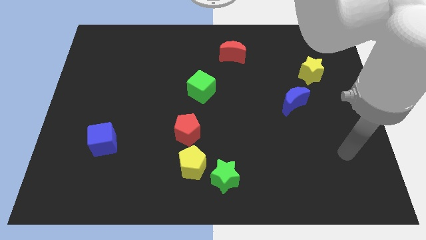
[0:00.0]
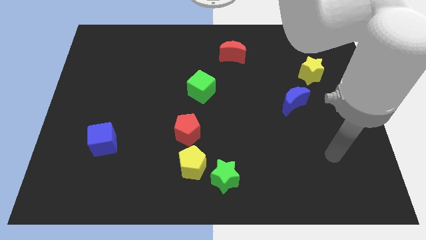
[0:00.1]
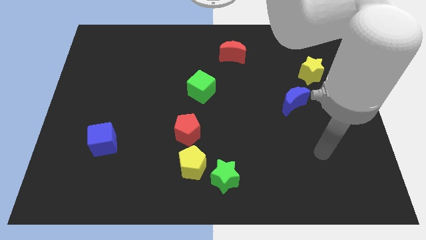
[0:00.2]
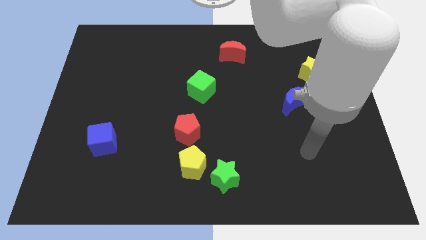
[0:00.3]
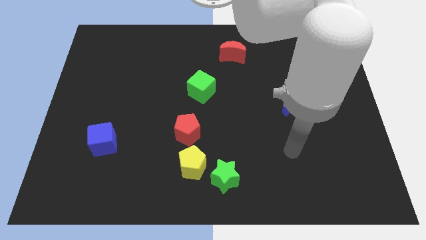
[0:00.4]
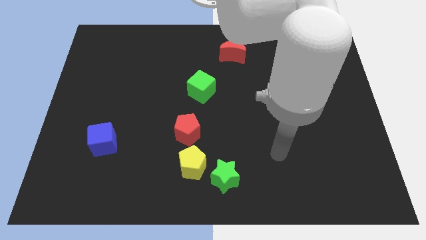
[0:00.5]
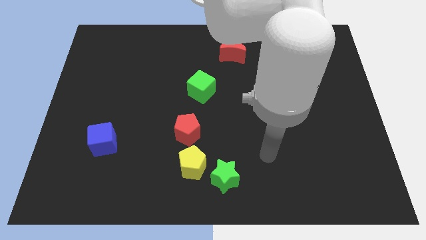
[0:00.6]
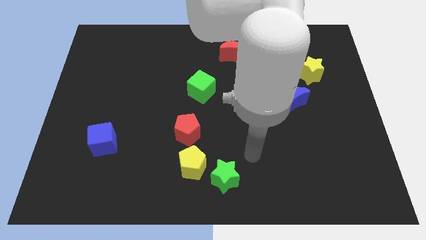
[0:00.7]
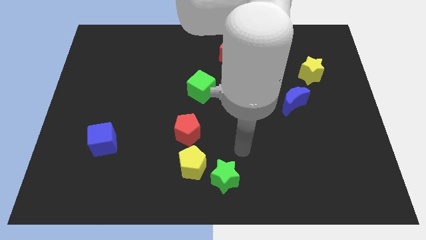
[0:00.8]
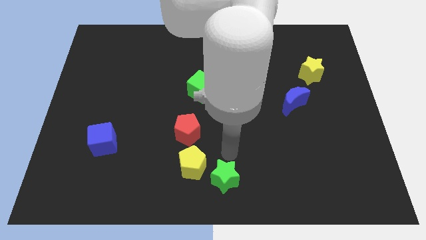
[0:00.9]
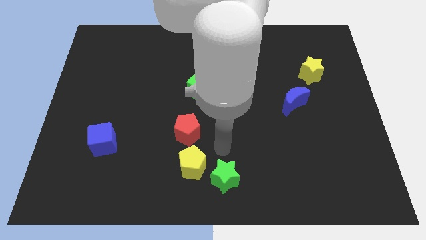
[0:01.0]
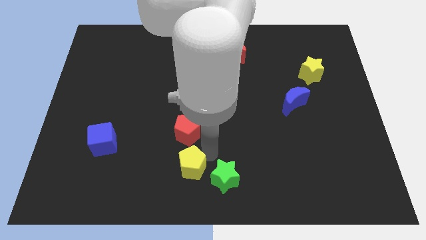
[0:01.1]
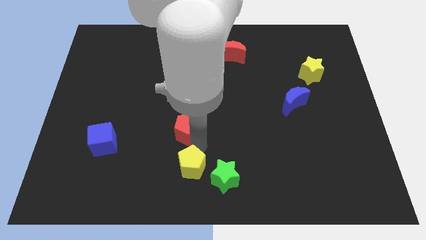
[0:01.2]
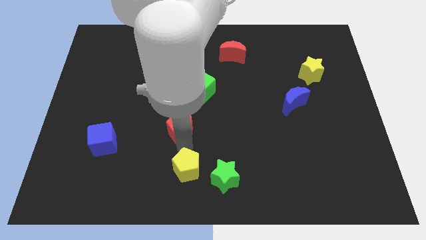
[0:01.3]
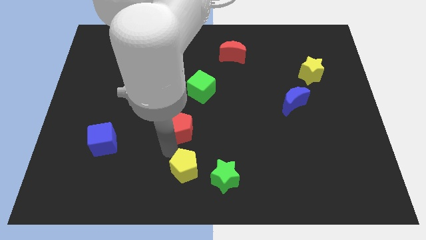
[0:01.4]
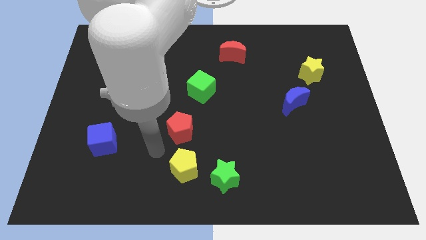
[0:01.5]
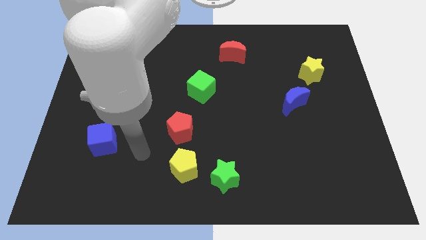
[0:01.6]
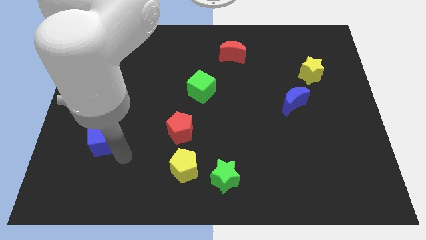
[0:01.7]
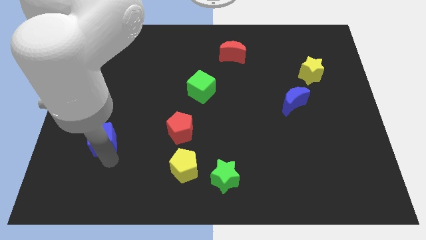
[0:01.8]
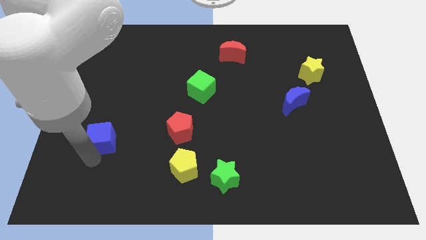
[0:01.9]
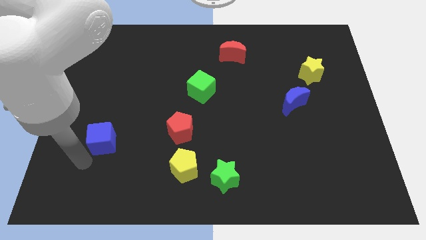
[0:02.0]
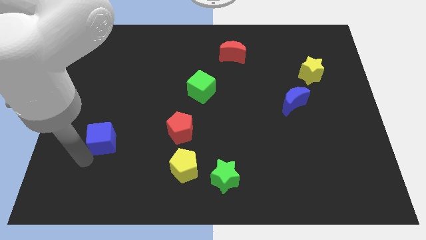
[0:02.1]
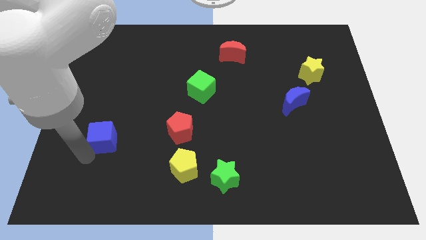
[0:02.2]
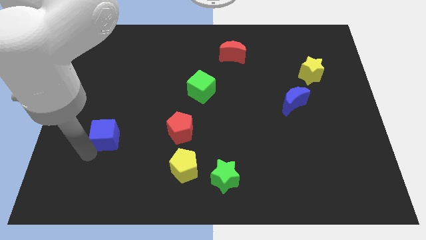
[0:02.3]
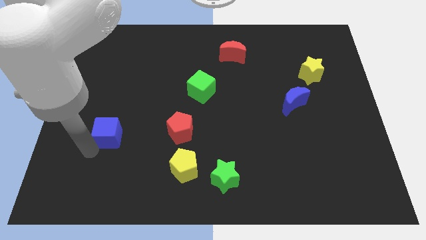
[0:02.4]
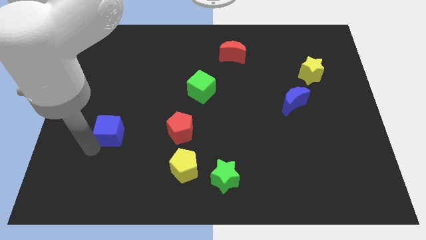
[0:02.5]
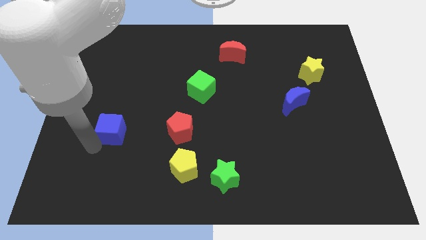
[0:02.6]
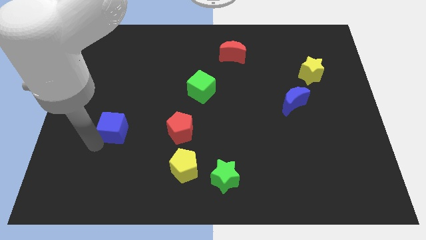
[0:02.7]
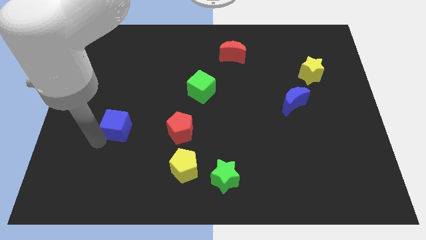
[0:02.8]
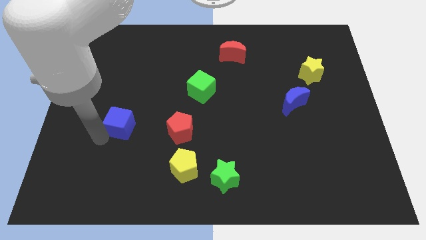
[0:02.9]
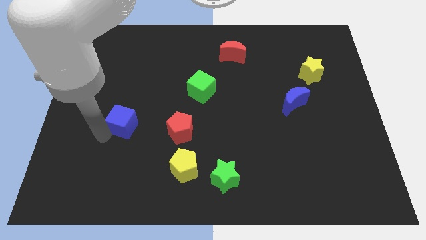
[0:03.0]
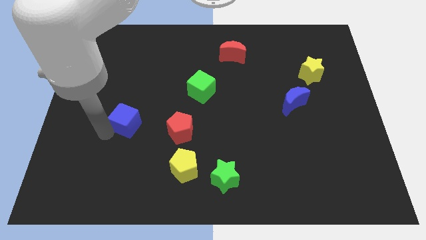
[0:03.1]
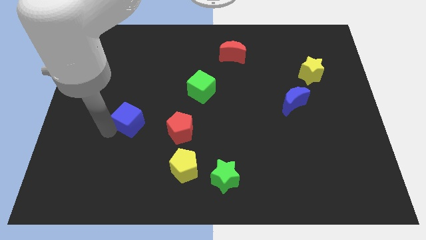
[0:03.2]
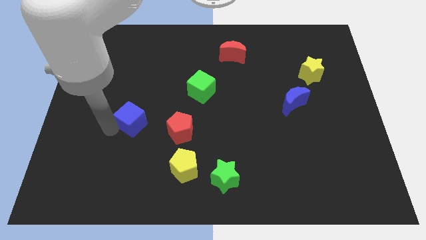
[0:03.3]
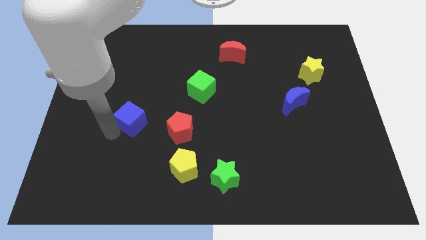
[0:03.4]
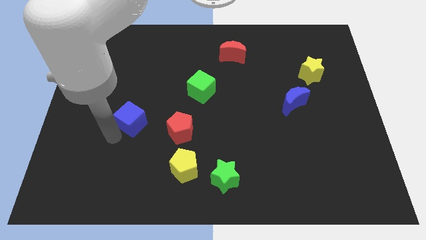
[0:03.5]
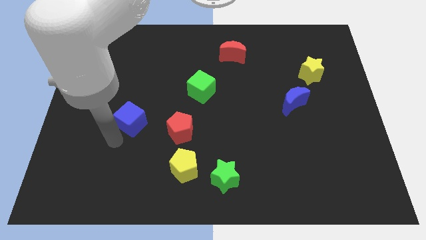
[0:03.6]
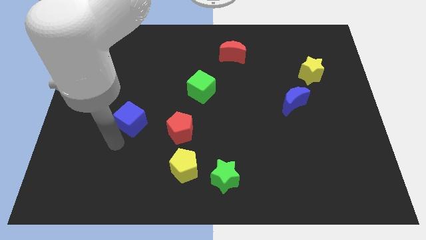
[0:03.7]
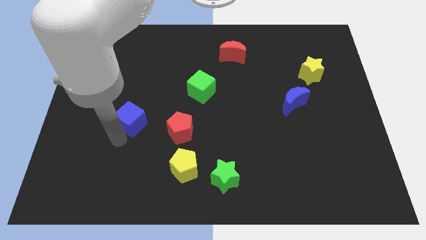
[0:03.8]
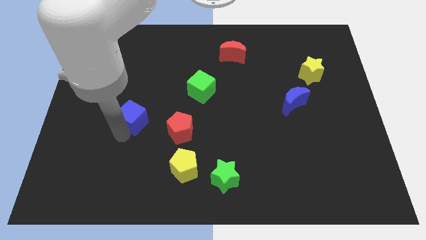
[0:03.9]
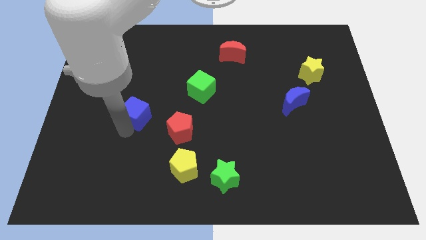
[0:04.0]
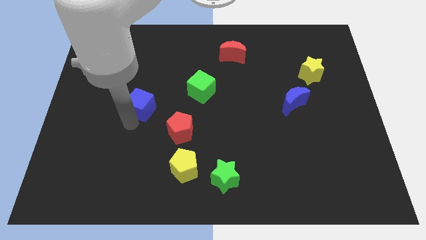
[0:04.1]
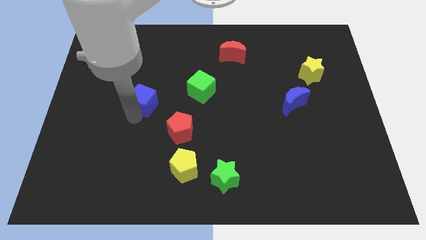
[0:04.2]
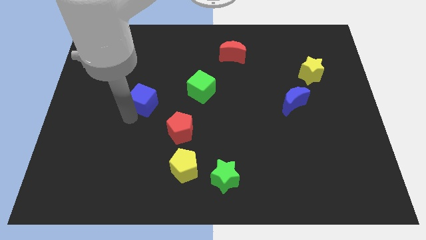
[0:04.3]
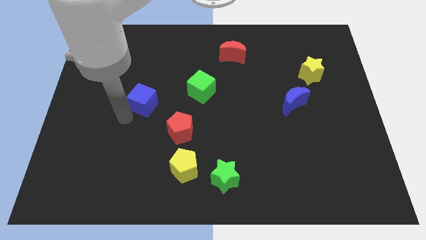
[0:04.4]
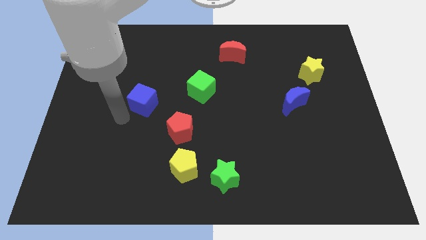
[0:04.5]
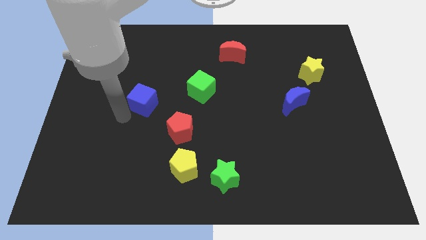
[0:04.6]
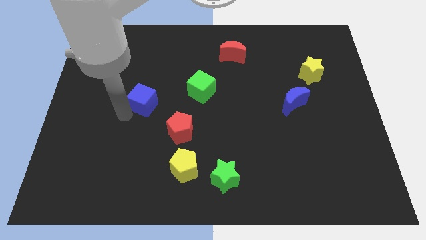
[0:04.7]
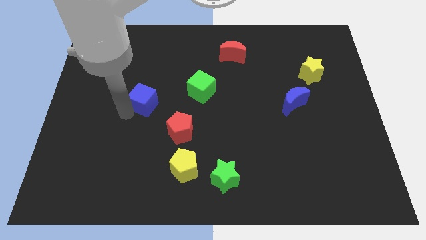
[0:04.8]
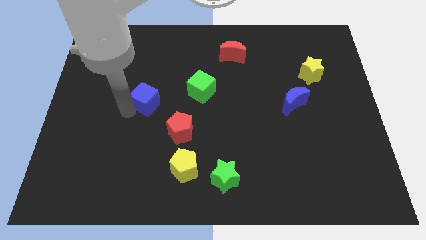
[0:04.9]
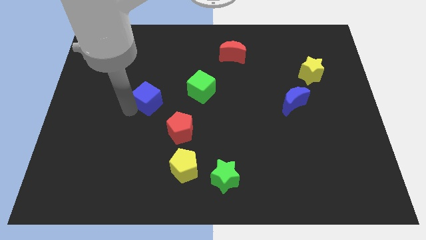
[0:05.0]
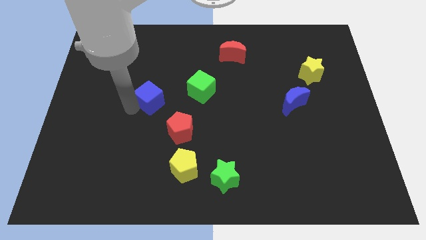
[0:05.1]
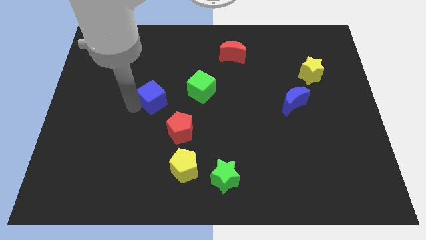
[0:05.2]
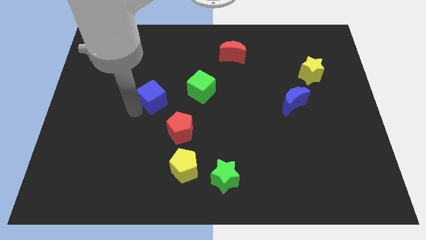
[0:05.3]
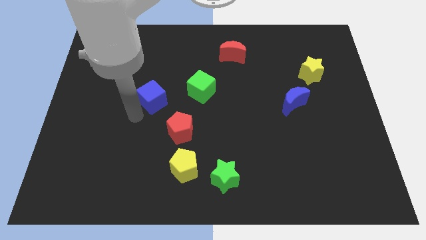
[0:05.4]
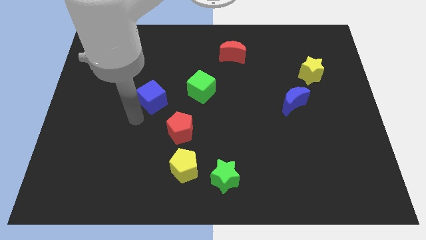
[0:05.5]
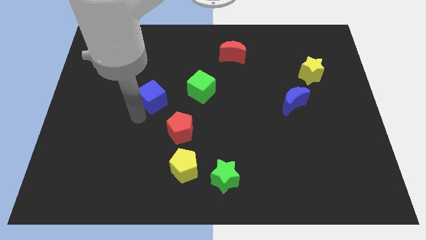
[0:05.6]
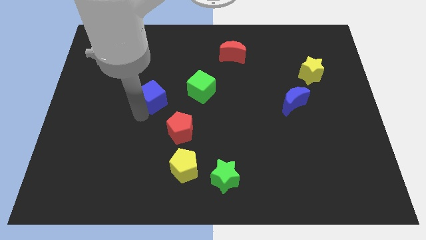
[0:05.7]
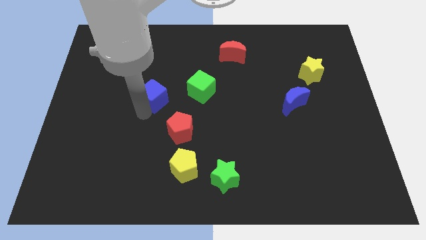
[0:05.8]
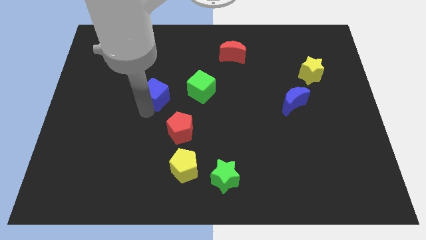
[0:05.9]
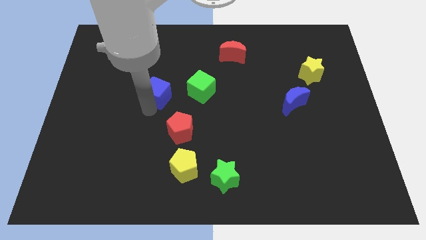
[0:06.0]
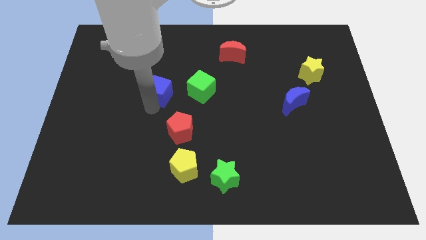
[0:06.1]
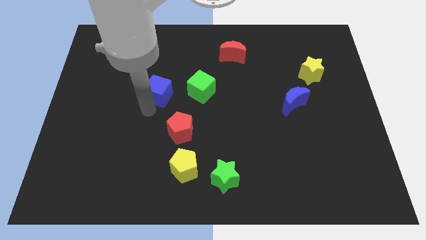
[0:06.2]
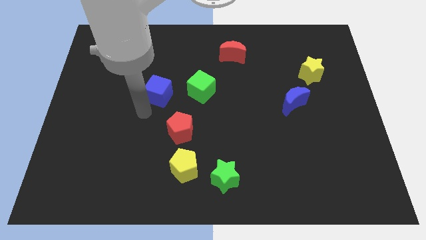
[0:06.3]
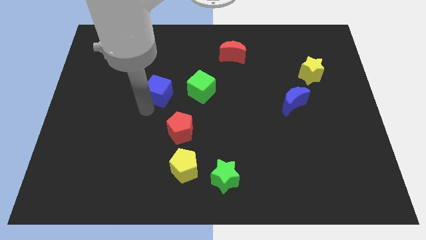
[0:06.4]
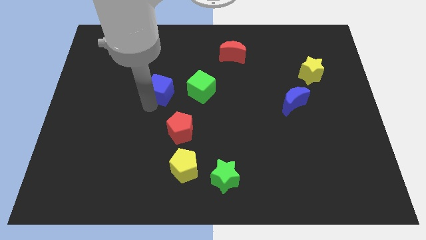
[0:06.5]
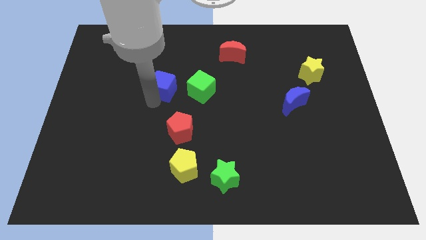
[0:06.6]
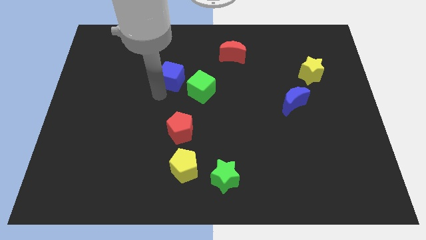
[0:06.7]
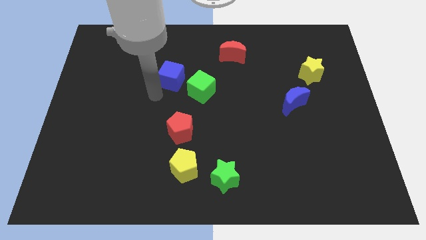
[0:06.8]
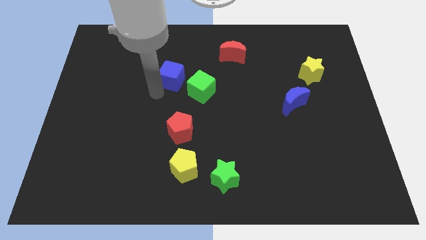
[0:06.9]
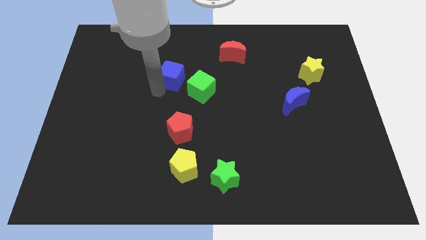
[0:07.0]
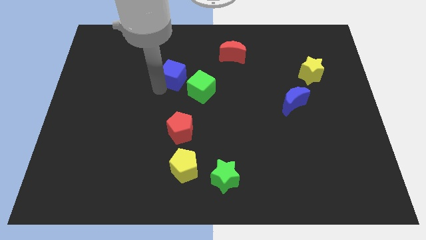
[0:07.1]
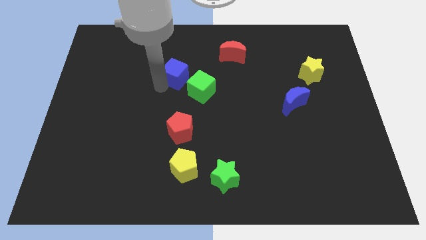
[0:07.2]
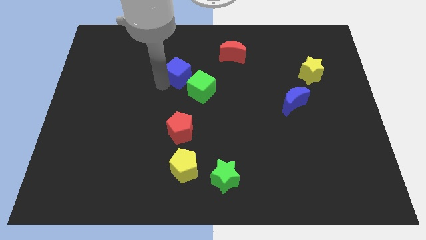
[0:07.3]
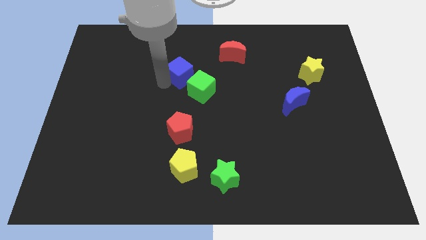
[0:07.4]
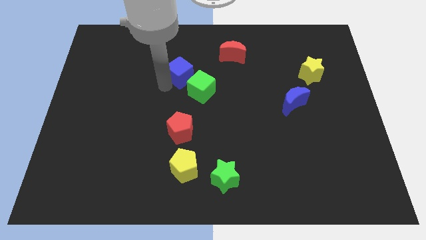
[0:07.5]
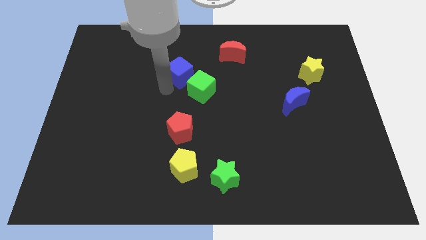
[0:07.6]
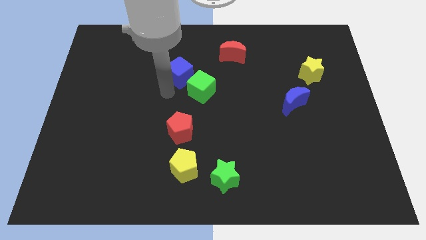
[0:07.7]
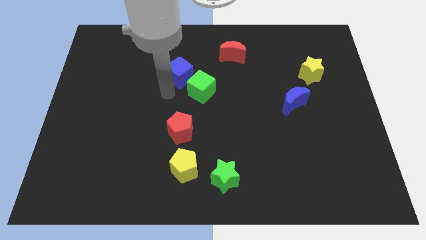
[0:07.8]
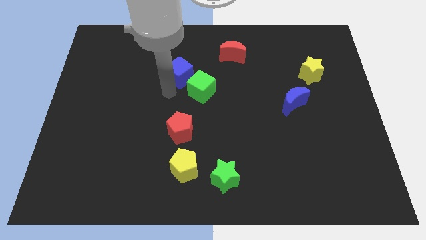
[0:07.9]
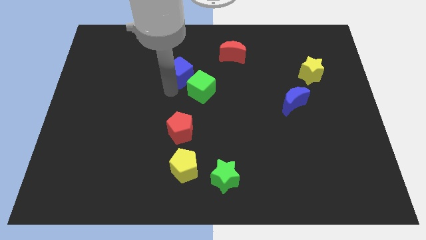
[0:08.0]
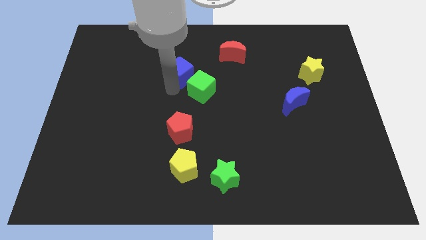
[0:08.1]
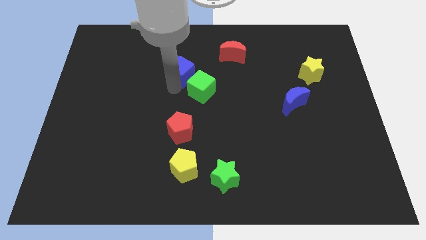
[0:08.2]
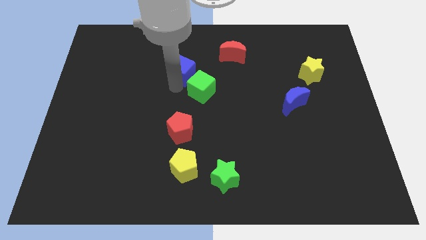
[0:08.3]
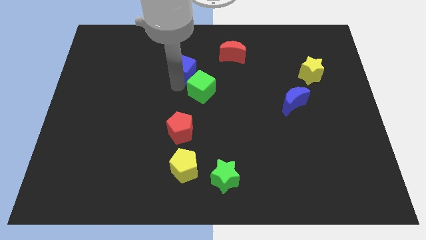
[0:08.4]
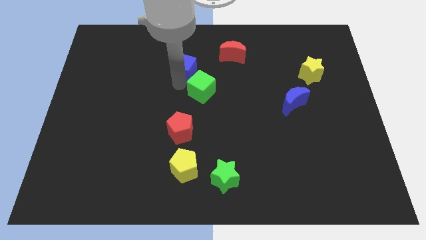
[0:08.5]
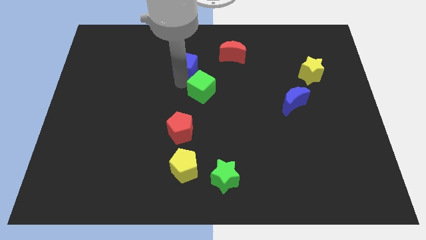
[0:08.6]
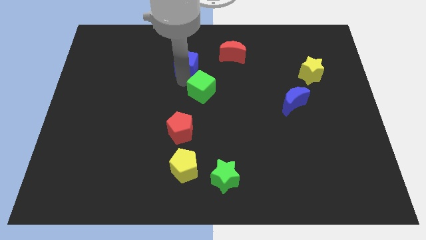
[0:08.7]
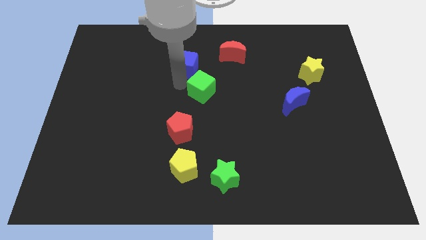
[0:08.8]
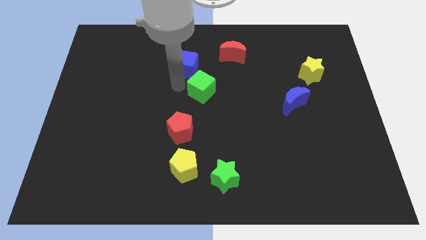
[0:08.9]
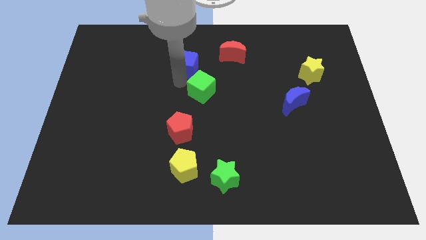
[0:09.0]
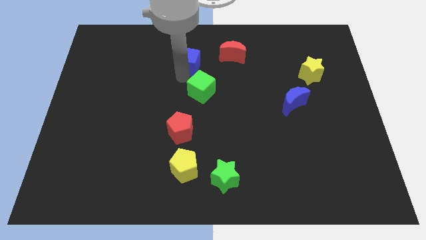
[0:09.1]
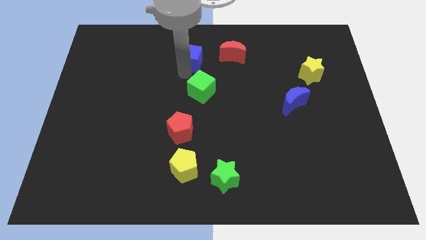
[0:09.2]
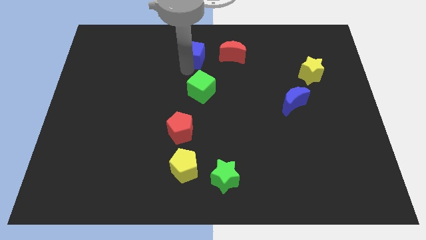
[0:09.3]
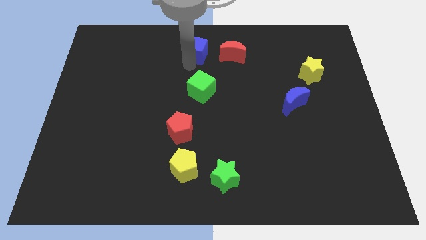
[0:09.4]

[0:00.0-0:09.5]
put the blue cube to the towards your base
